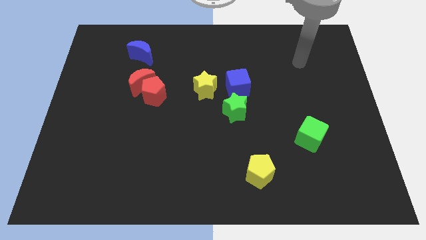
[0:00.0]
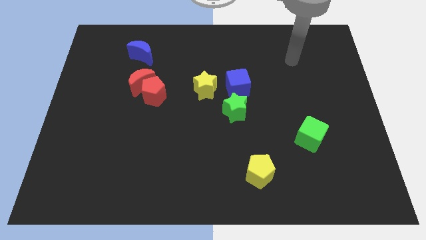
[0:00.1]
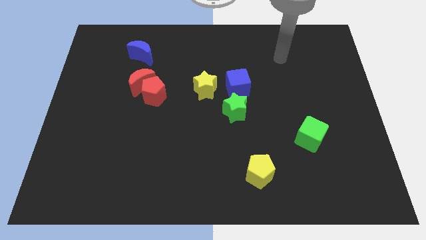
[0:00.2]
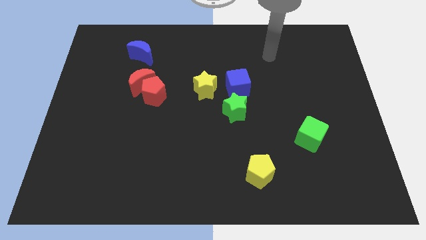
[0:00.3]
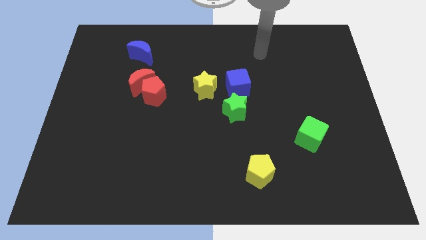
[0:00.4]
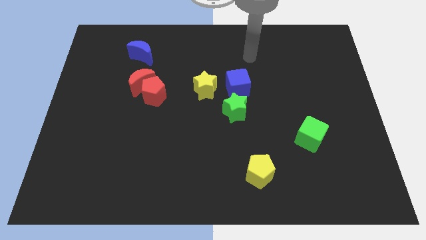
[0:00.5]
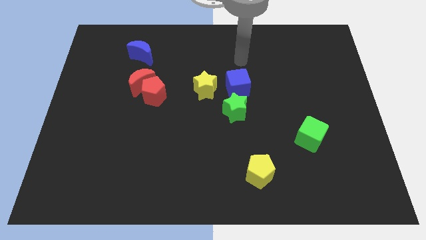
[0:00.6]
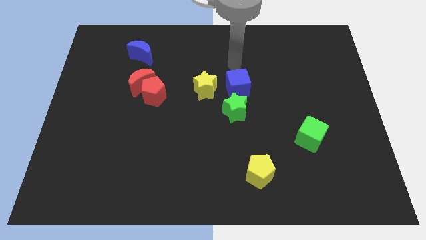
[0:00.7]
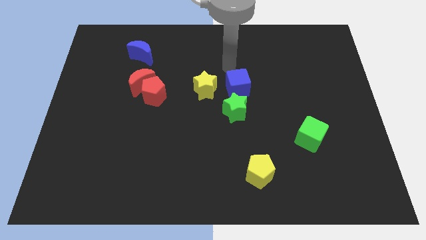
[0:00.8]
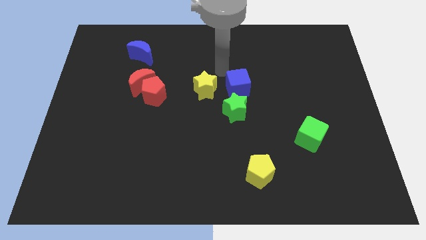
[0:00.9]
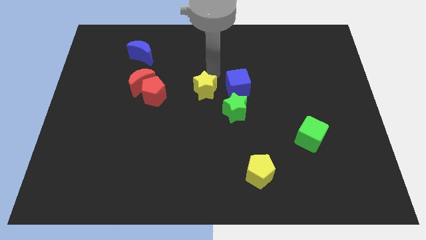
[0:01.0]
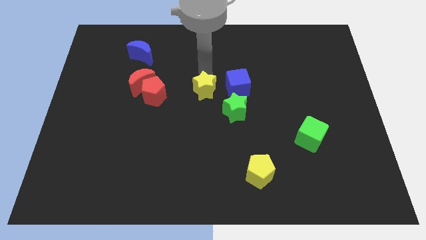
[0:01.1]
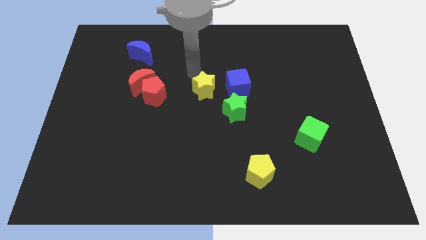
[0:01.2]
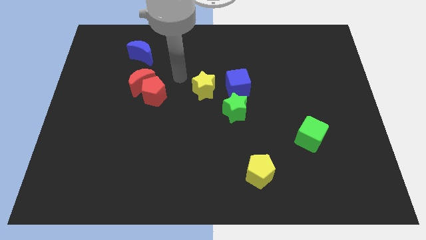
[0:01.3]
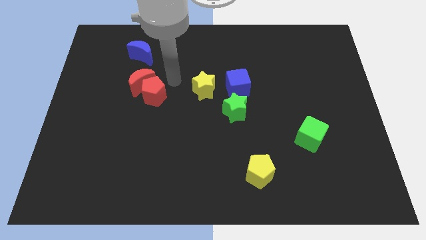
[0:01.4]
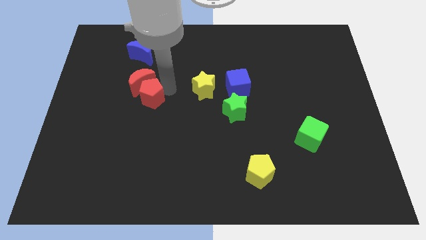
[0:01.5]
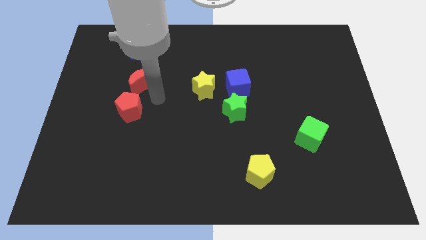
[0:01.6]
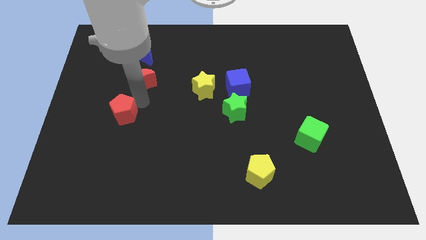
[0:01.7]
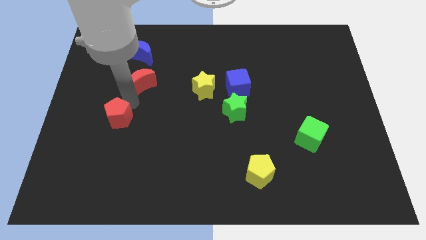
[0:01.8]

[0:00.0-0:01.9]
move the red moon away from the red pentagon

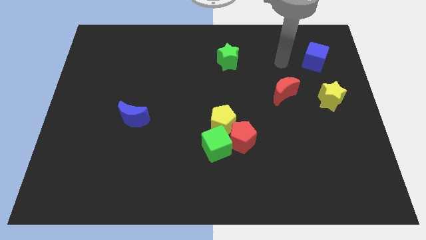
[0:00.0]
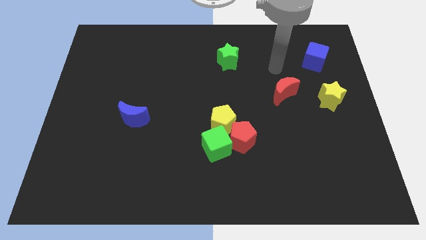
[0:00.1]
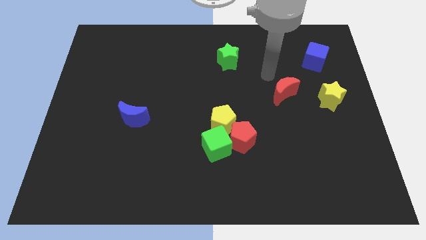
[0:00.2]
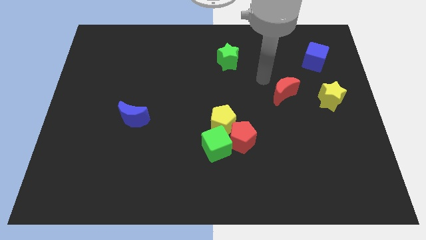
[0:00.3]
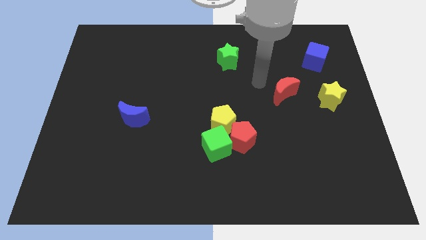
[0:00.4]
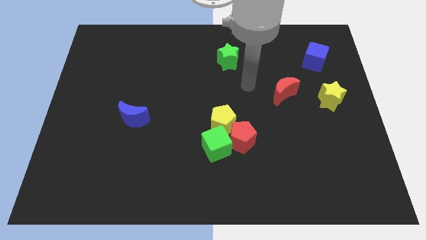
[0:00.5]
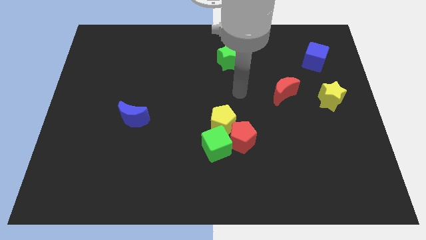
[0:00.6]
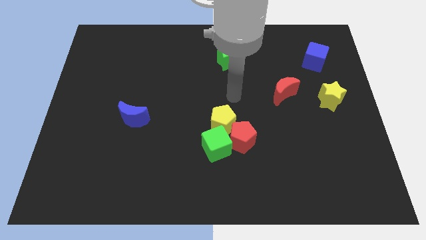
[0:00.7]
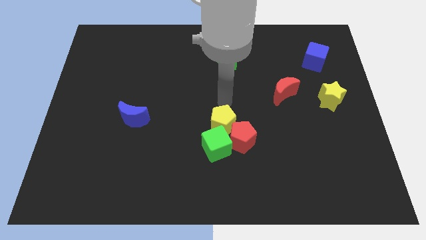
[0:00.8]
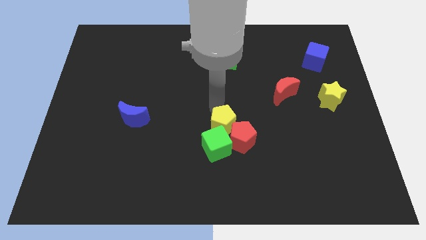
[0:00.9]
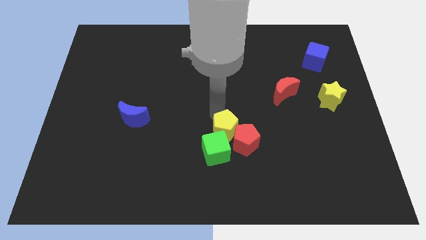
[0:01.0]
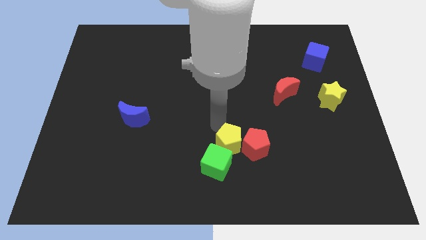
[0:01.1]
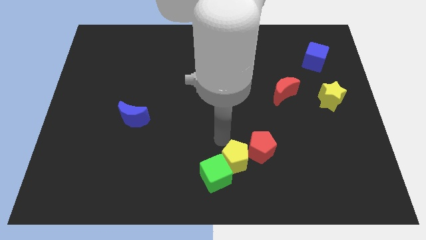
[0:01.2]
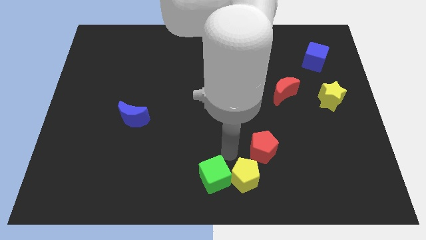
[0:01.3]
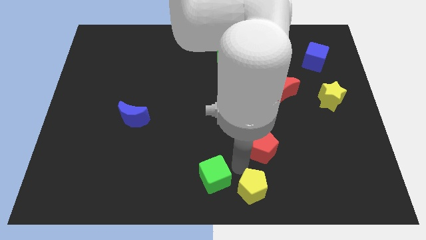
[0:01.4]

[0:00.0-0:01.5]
separate the red pentagon from the green cube and yellow pentagon

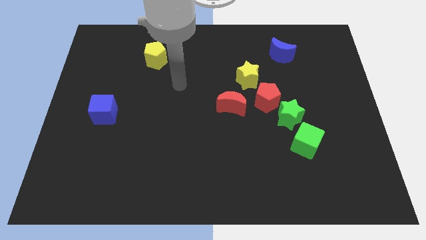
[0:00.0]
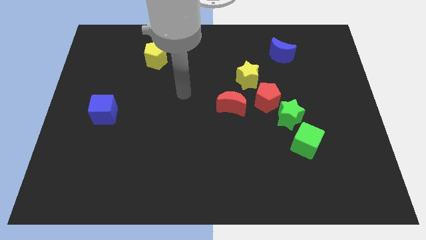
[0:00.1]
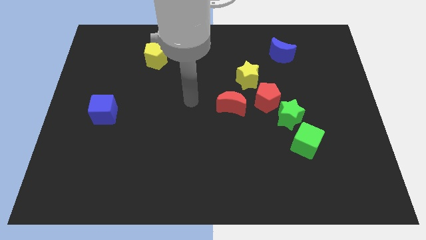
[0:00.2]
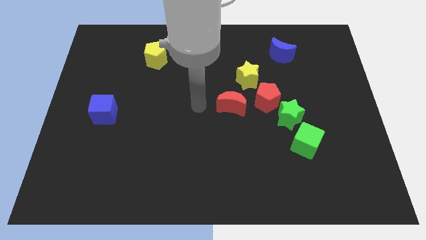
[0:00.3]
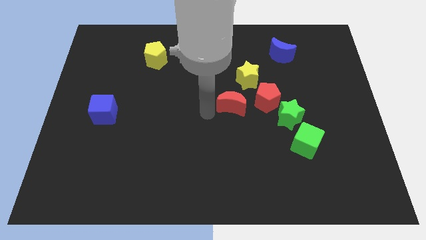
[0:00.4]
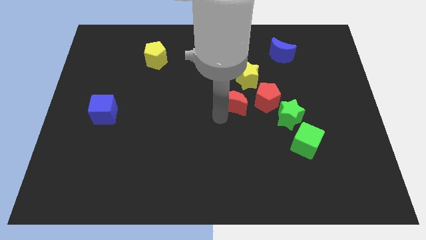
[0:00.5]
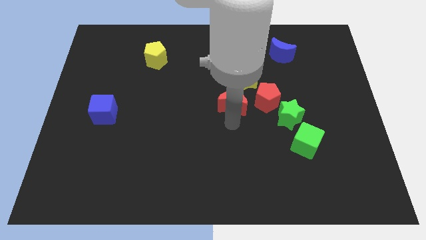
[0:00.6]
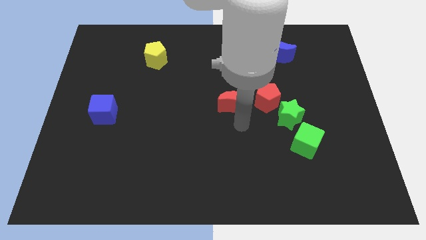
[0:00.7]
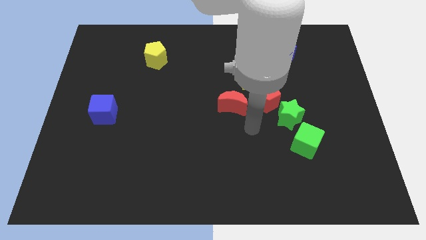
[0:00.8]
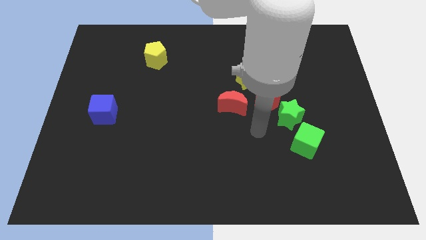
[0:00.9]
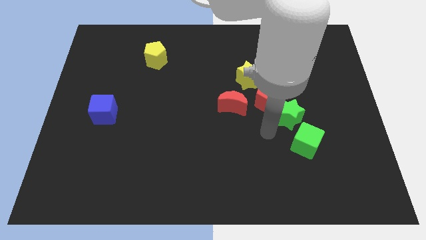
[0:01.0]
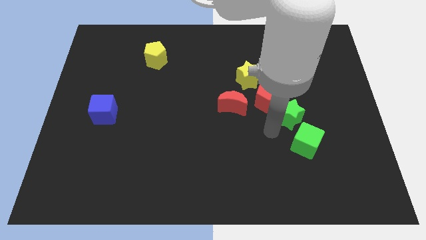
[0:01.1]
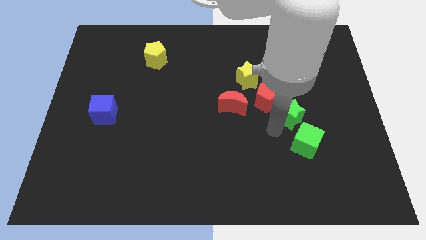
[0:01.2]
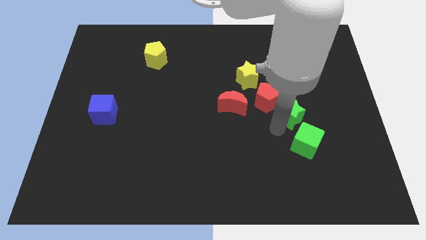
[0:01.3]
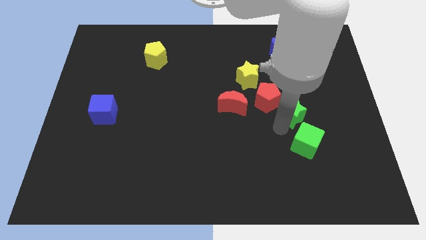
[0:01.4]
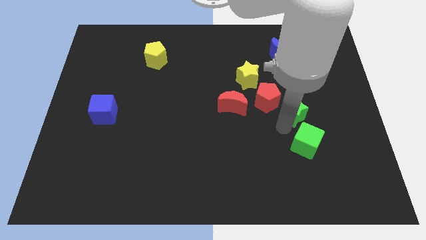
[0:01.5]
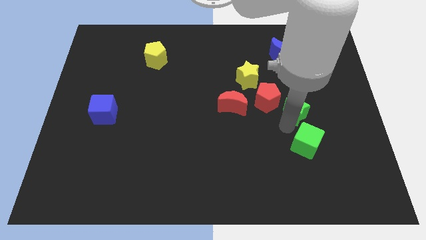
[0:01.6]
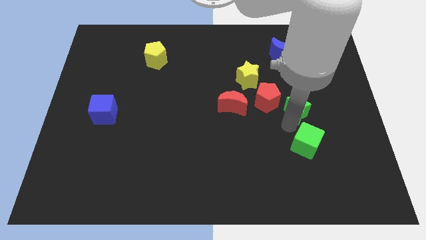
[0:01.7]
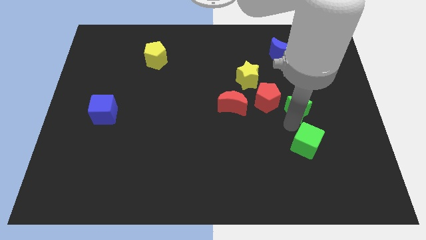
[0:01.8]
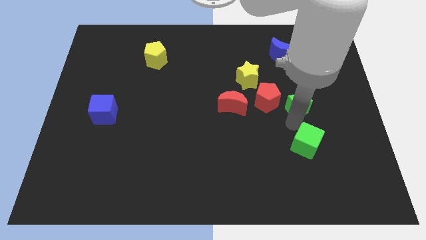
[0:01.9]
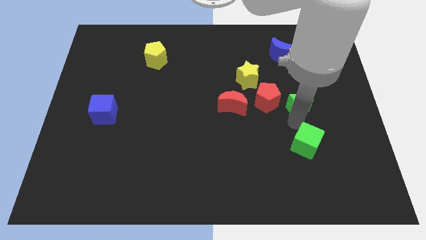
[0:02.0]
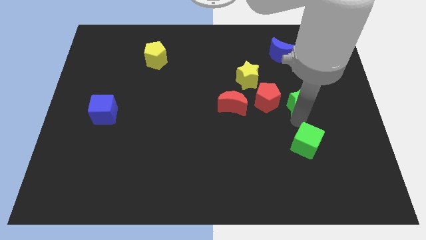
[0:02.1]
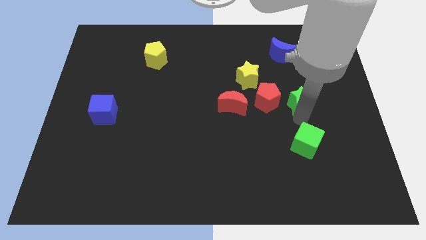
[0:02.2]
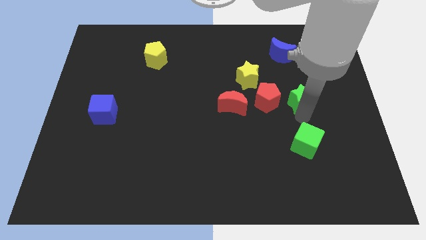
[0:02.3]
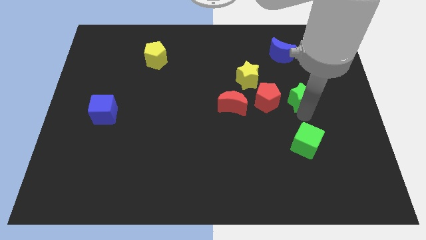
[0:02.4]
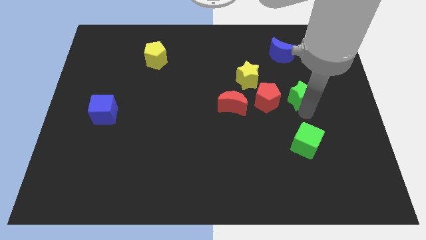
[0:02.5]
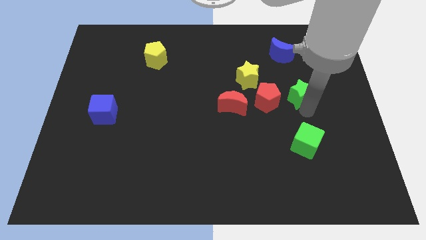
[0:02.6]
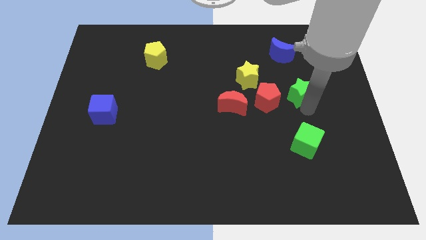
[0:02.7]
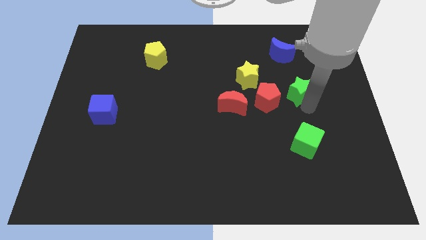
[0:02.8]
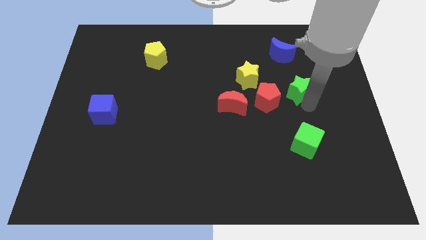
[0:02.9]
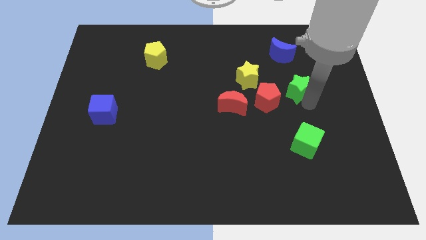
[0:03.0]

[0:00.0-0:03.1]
move the green star away from the red pentagon and green cube

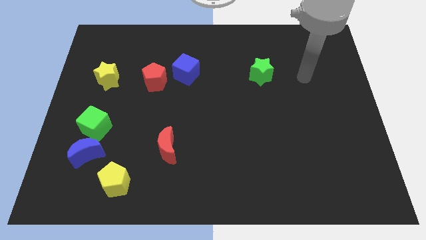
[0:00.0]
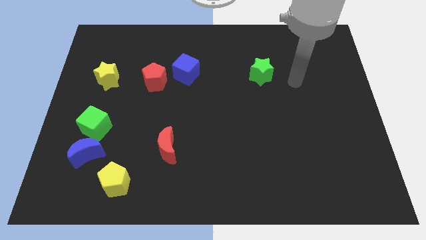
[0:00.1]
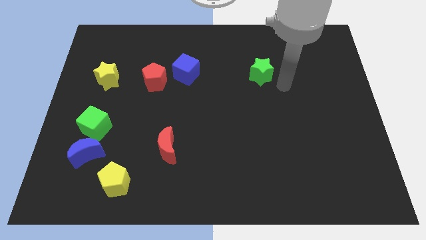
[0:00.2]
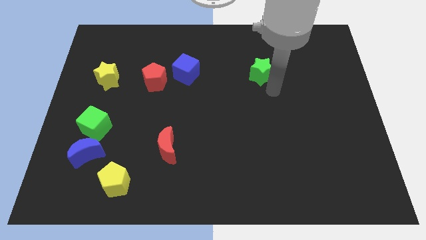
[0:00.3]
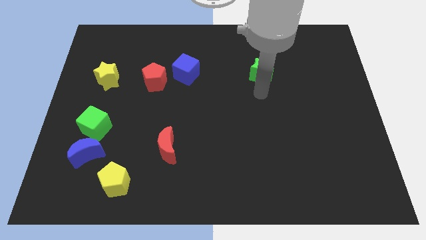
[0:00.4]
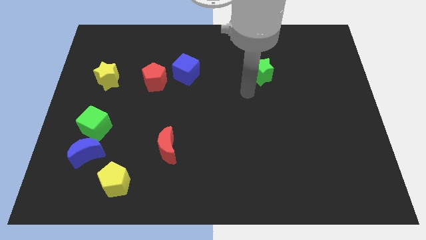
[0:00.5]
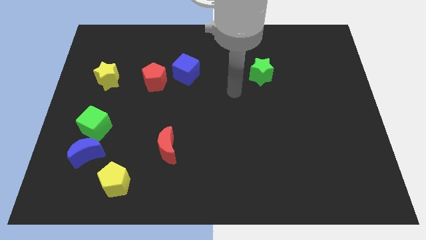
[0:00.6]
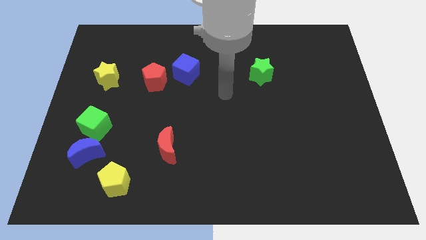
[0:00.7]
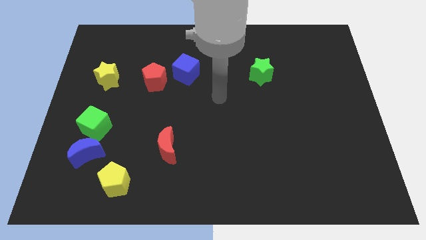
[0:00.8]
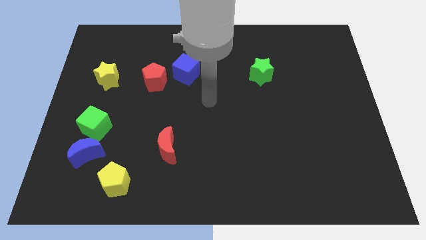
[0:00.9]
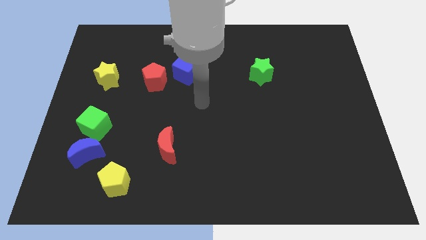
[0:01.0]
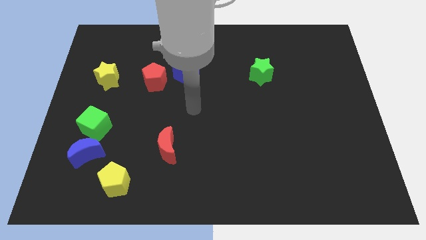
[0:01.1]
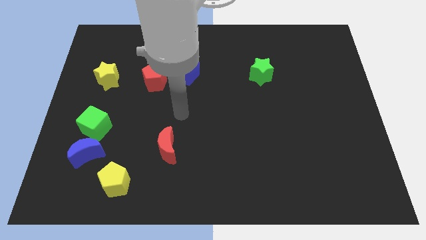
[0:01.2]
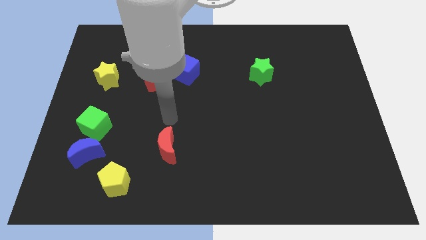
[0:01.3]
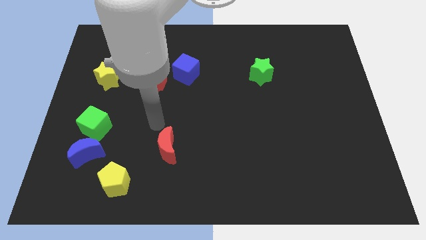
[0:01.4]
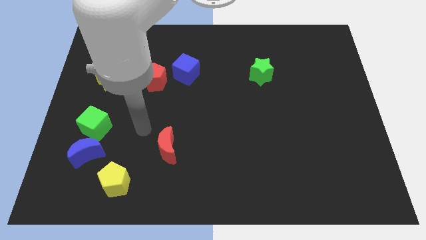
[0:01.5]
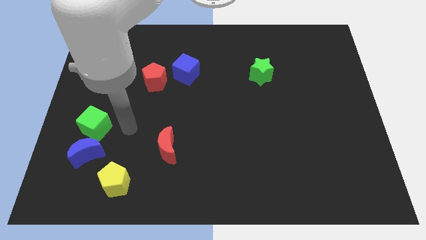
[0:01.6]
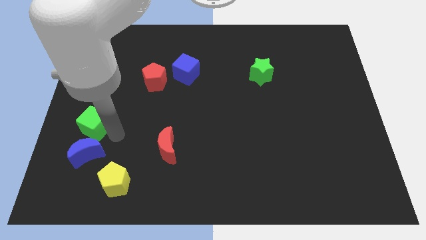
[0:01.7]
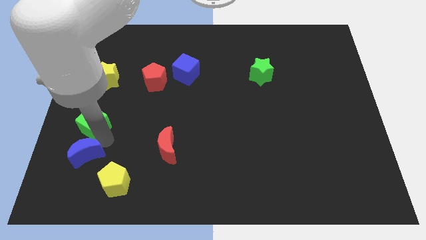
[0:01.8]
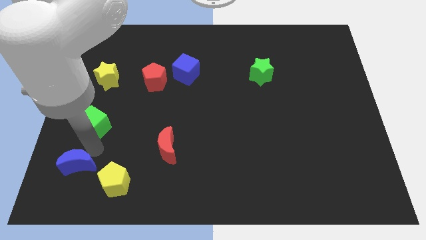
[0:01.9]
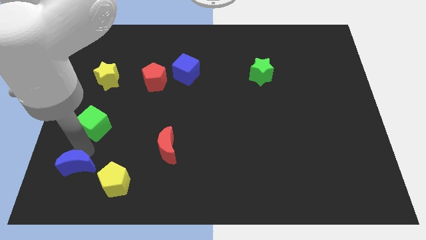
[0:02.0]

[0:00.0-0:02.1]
pull the green cube apart from the blue moon

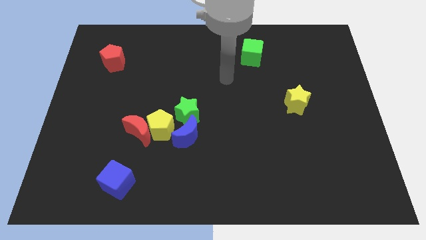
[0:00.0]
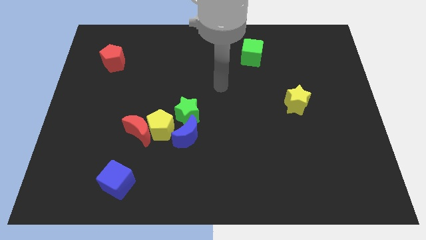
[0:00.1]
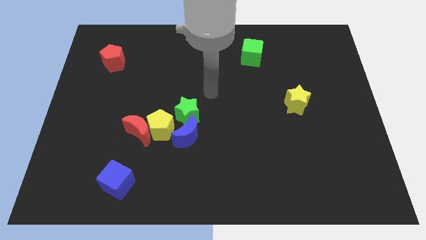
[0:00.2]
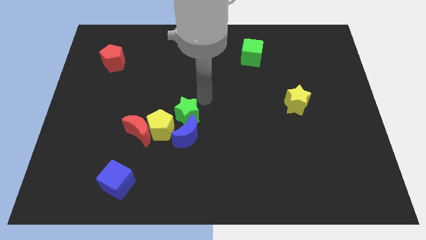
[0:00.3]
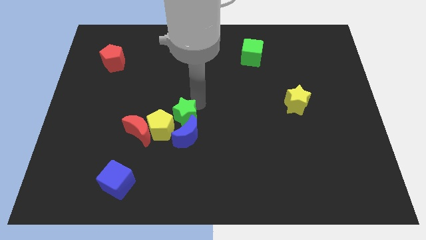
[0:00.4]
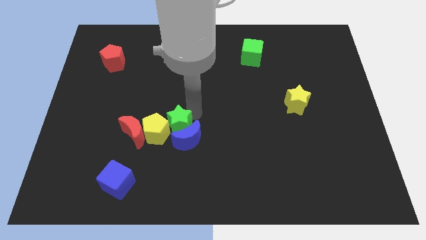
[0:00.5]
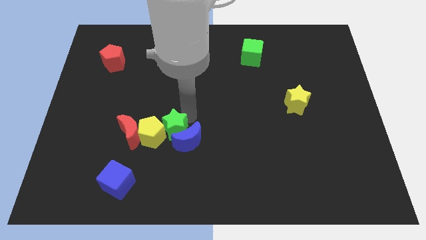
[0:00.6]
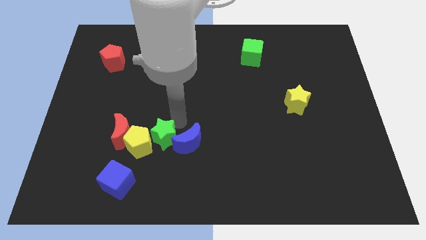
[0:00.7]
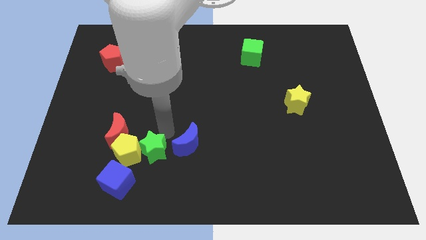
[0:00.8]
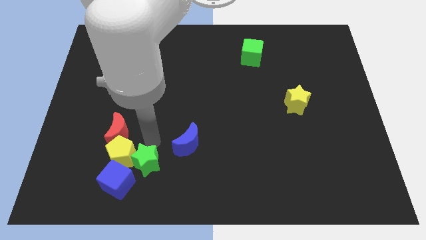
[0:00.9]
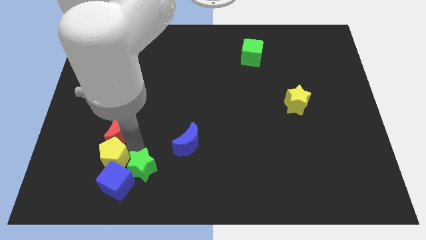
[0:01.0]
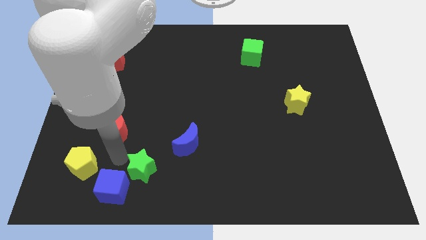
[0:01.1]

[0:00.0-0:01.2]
move the red moon away from the yellow pentagon
